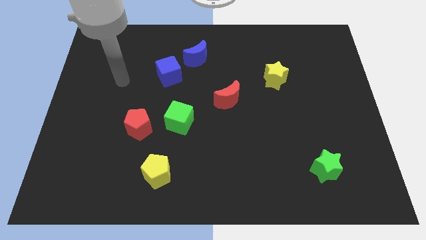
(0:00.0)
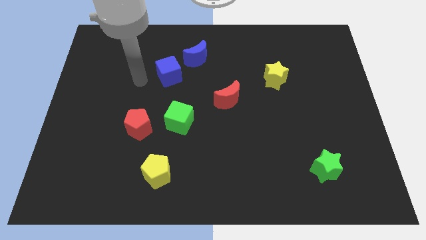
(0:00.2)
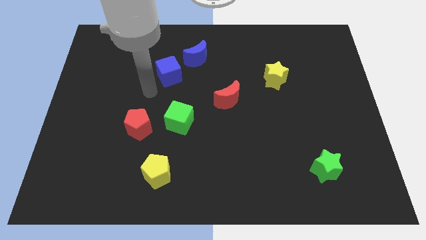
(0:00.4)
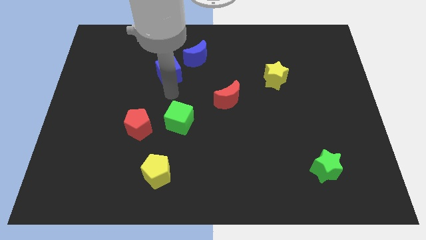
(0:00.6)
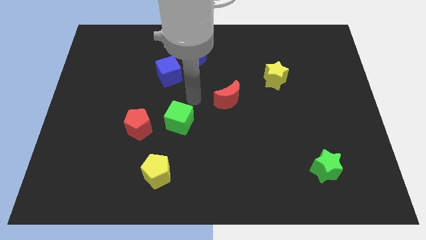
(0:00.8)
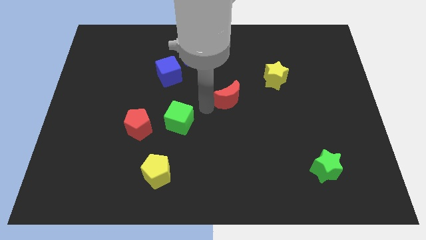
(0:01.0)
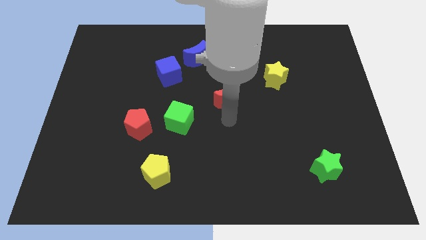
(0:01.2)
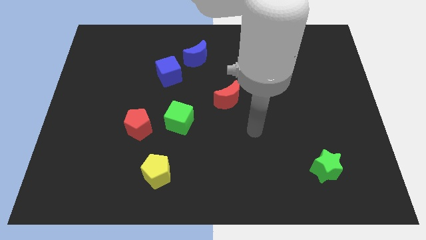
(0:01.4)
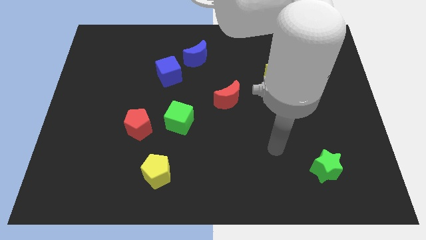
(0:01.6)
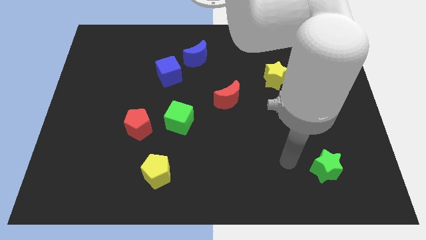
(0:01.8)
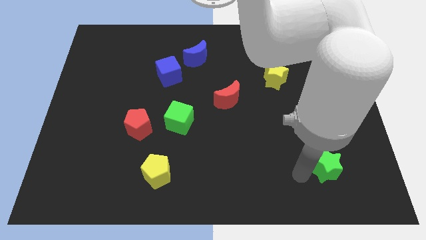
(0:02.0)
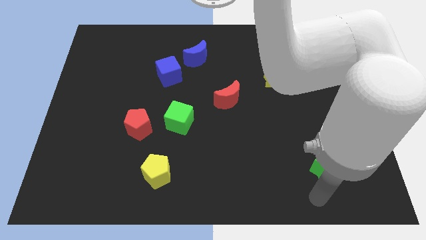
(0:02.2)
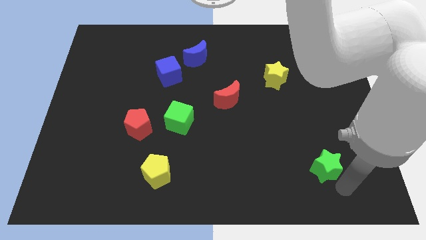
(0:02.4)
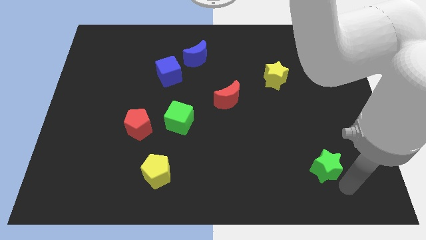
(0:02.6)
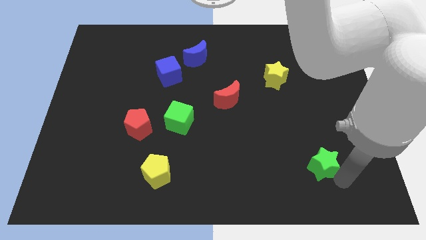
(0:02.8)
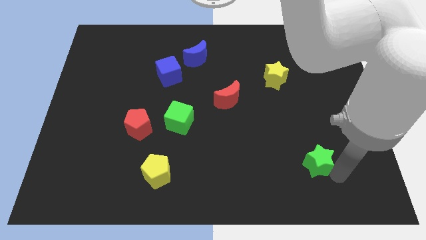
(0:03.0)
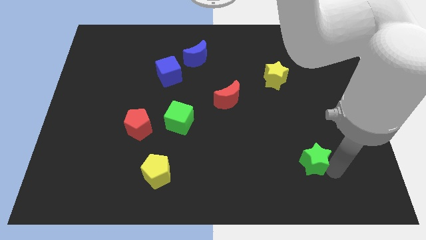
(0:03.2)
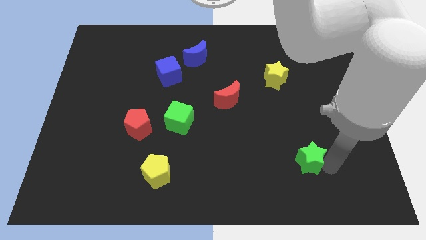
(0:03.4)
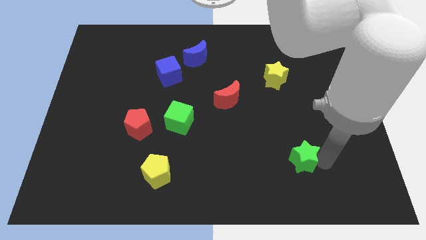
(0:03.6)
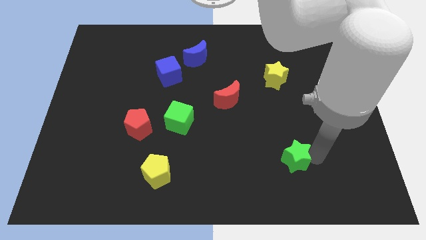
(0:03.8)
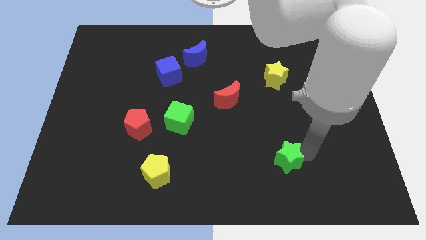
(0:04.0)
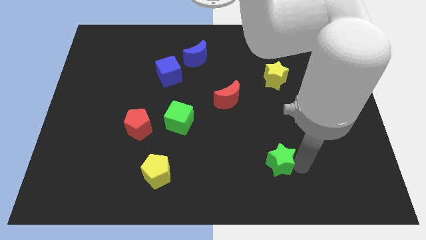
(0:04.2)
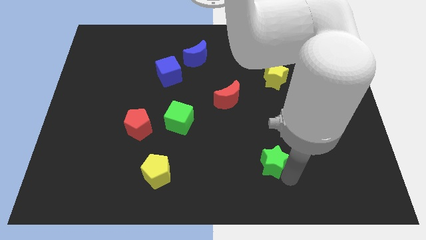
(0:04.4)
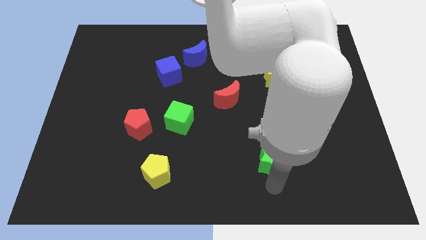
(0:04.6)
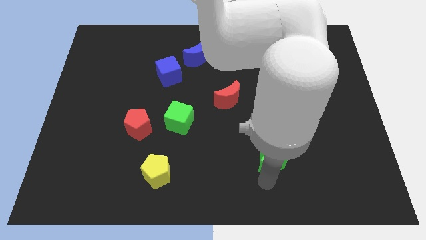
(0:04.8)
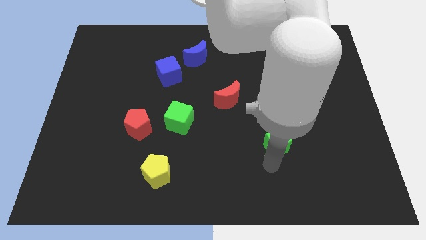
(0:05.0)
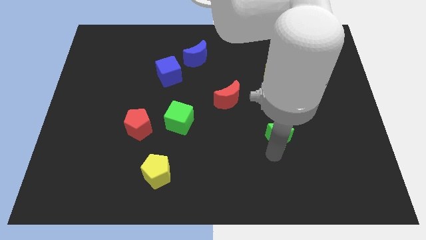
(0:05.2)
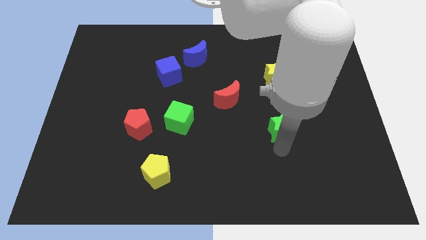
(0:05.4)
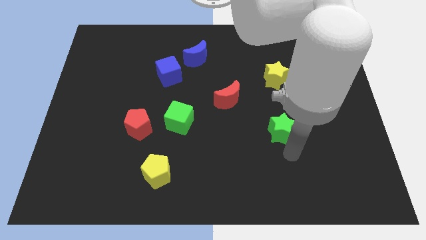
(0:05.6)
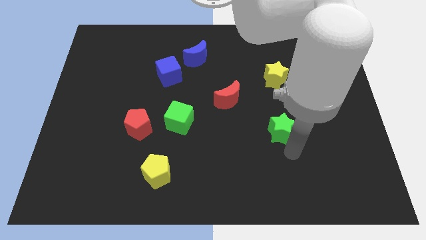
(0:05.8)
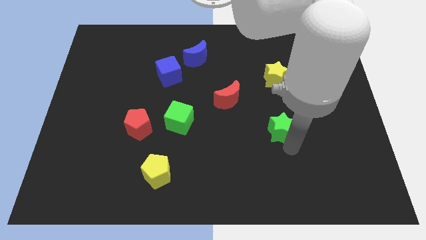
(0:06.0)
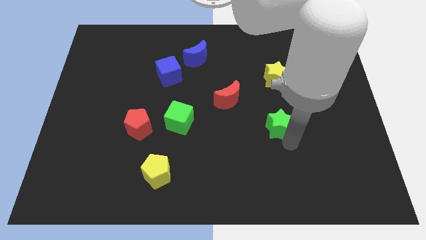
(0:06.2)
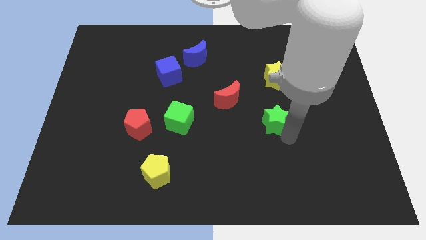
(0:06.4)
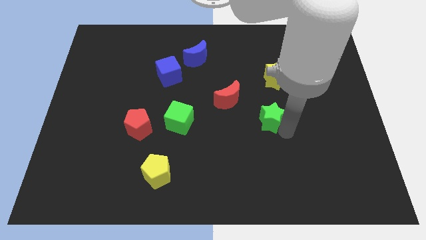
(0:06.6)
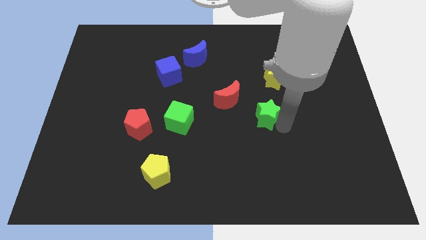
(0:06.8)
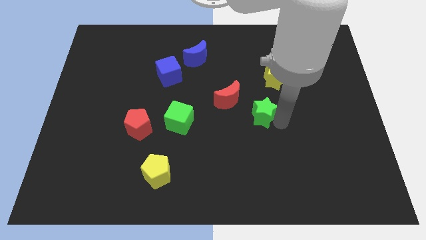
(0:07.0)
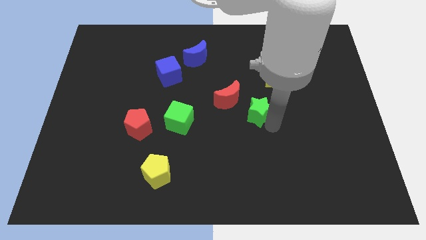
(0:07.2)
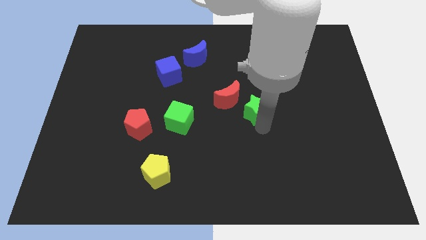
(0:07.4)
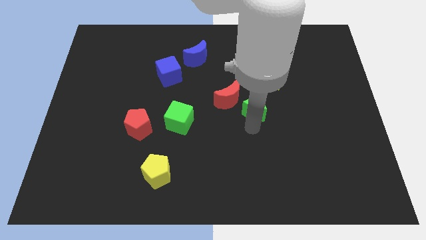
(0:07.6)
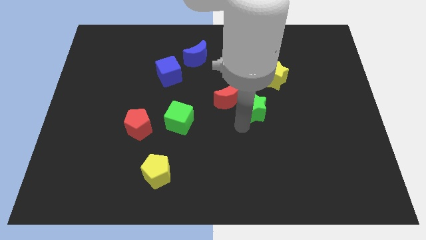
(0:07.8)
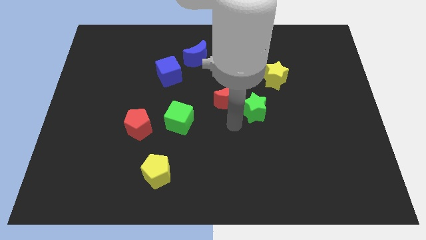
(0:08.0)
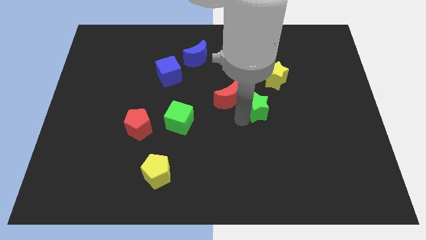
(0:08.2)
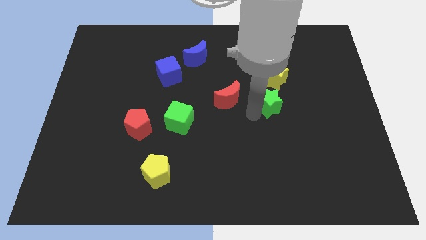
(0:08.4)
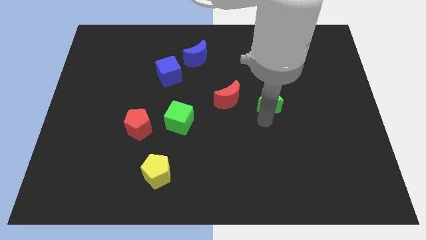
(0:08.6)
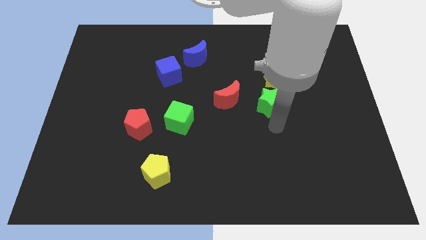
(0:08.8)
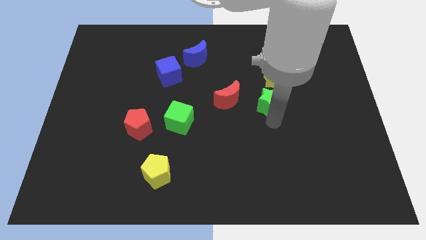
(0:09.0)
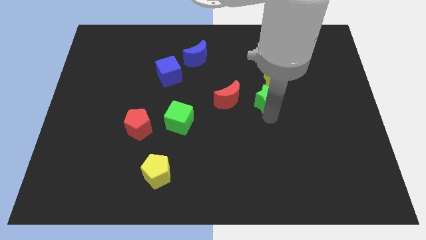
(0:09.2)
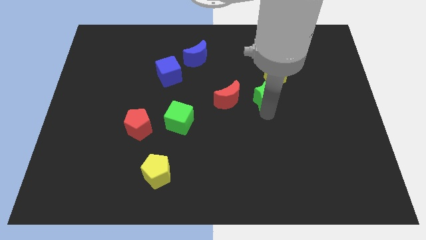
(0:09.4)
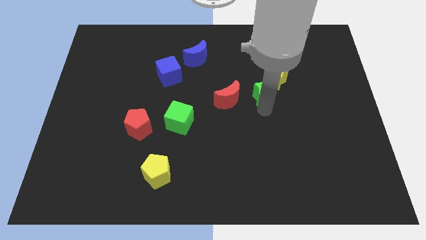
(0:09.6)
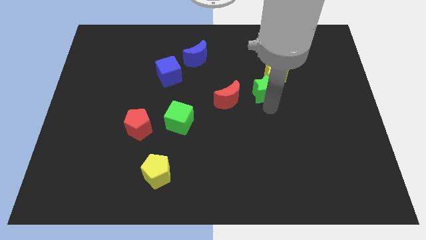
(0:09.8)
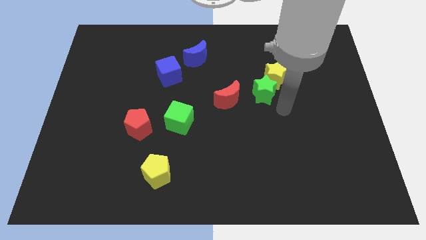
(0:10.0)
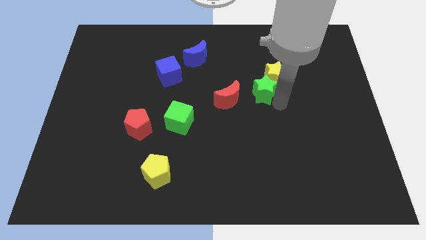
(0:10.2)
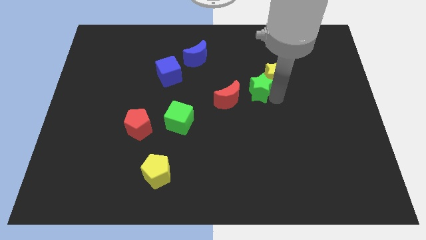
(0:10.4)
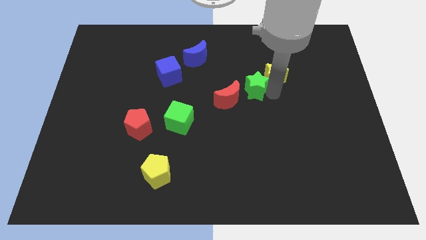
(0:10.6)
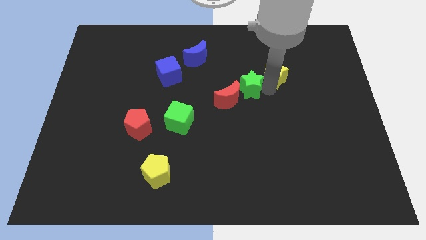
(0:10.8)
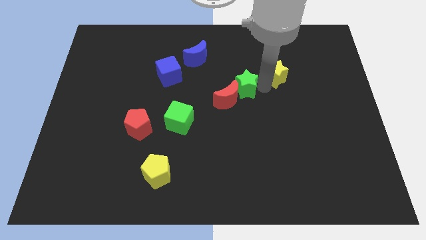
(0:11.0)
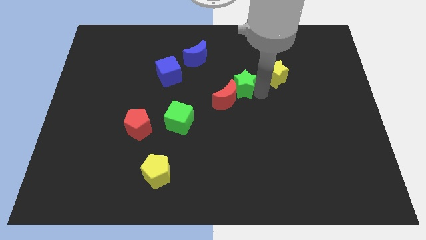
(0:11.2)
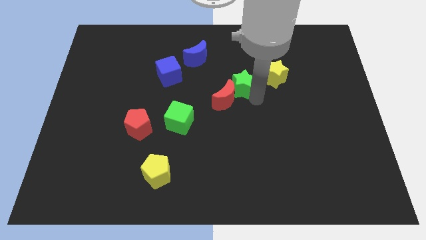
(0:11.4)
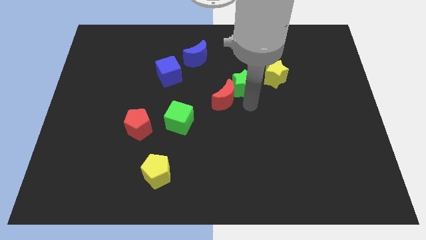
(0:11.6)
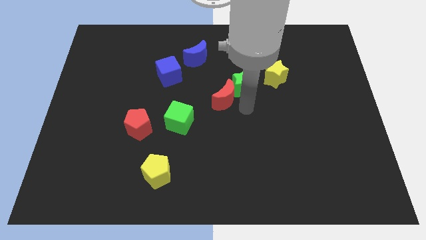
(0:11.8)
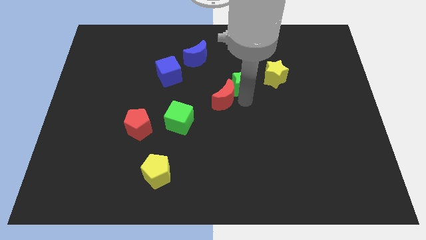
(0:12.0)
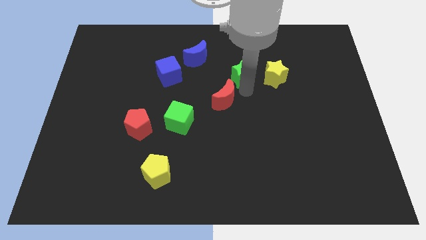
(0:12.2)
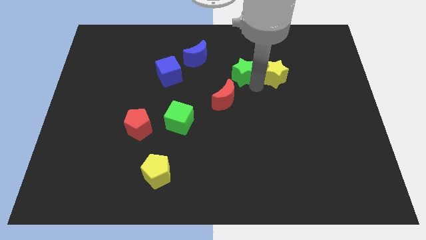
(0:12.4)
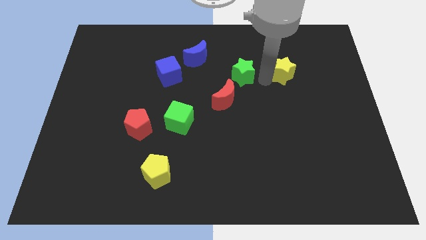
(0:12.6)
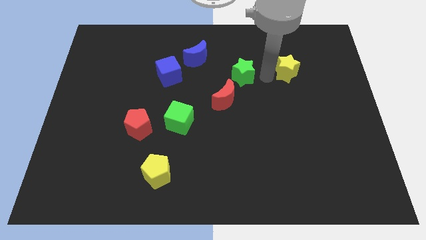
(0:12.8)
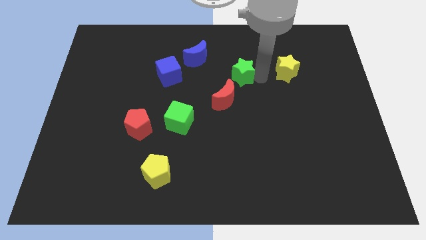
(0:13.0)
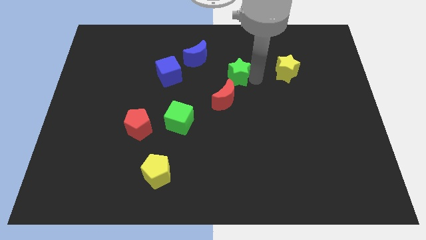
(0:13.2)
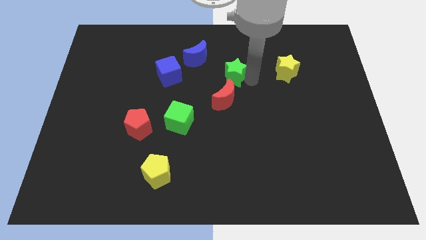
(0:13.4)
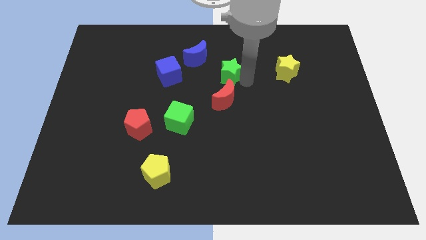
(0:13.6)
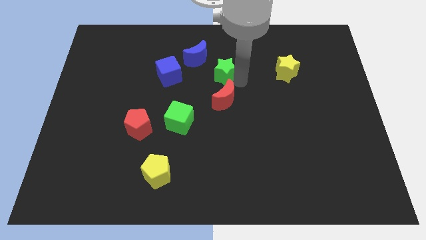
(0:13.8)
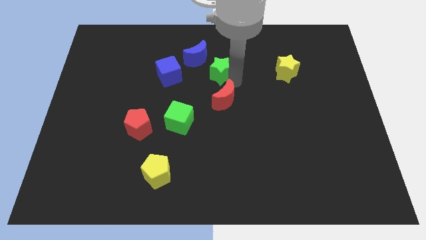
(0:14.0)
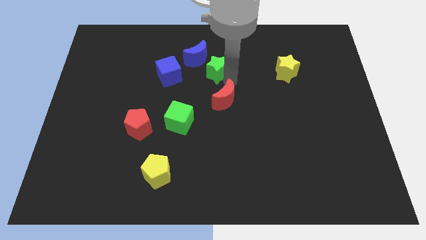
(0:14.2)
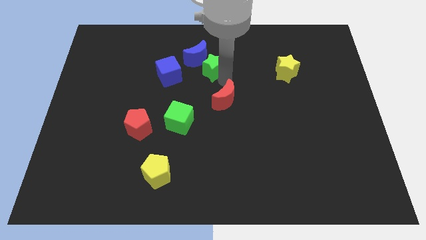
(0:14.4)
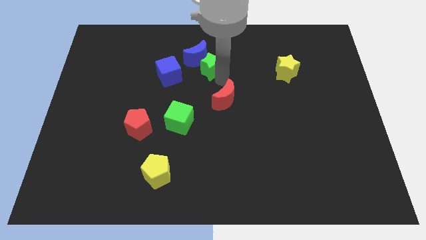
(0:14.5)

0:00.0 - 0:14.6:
move the green star towards the blue moon

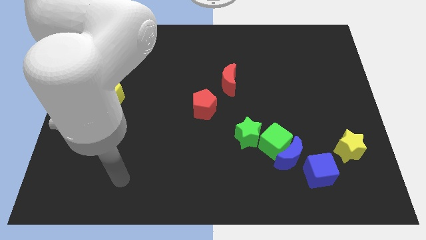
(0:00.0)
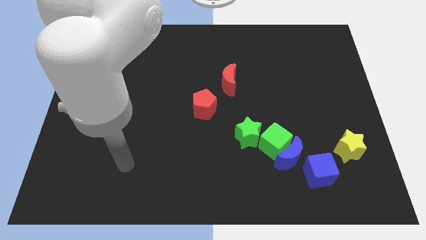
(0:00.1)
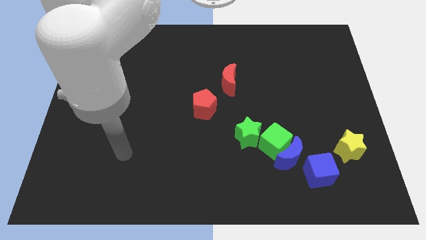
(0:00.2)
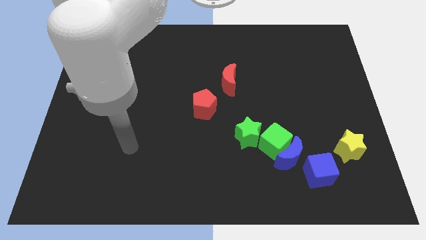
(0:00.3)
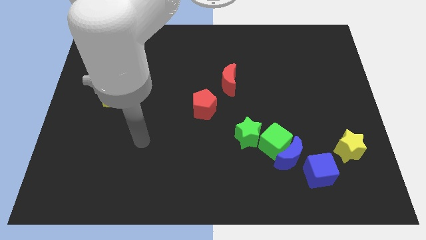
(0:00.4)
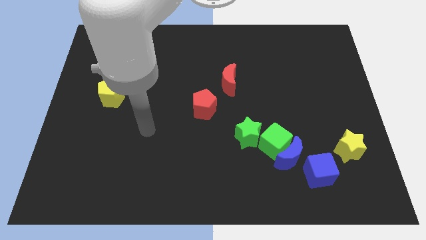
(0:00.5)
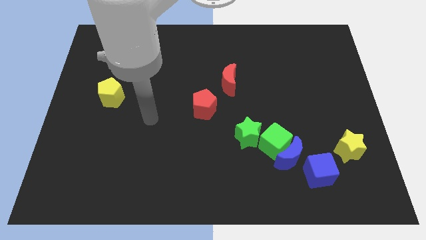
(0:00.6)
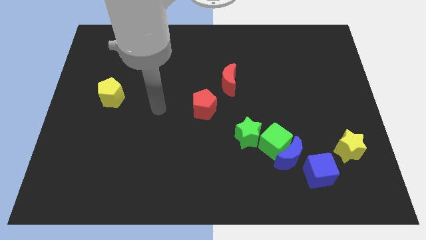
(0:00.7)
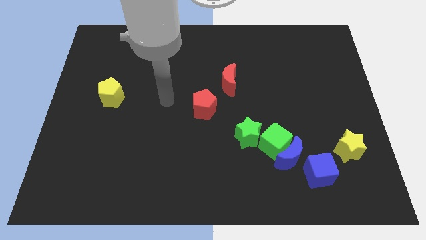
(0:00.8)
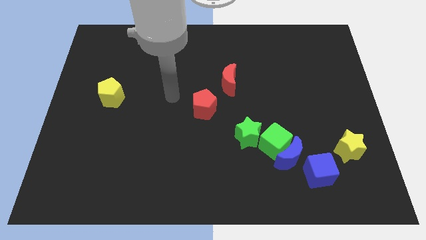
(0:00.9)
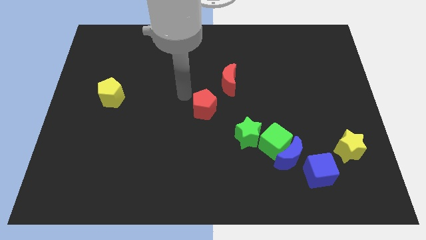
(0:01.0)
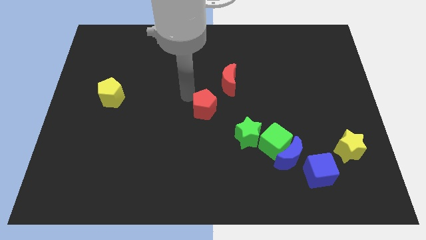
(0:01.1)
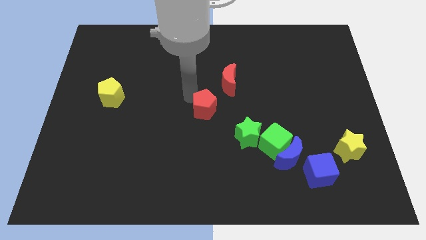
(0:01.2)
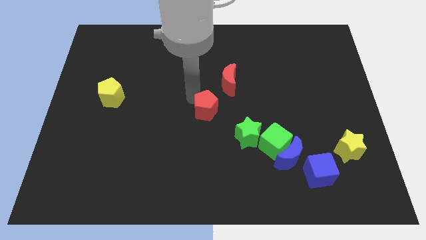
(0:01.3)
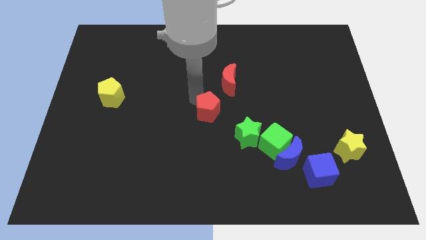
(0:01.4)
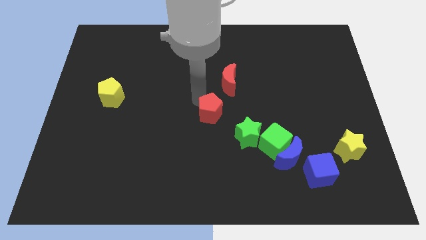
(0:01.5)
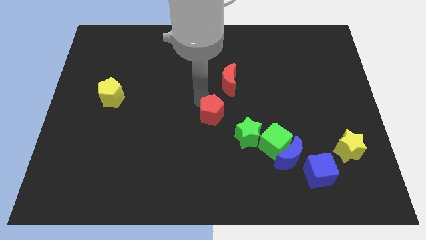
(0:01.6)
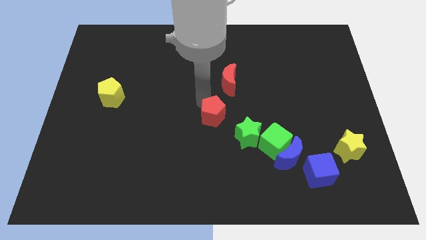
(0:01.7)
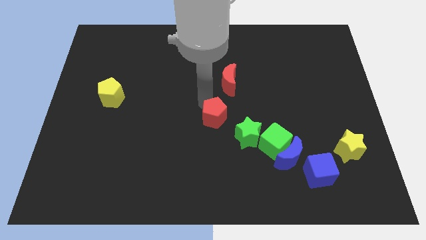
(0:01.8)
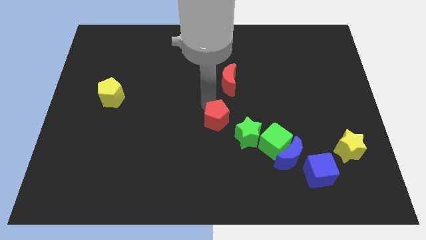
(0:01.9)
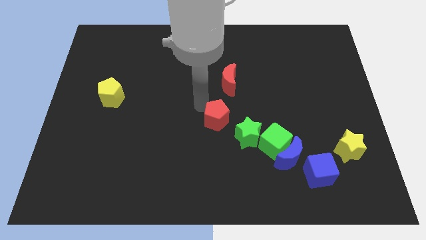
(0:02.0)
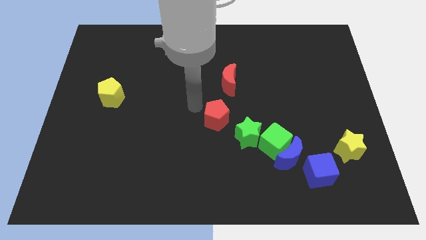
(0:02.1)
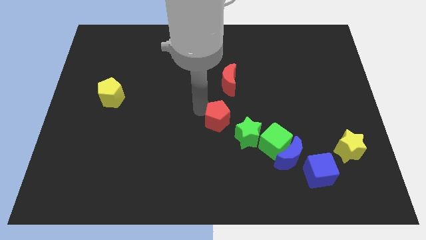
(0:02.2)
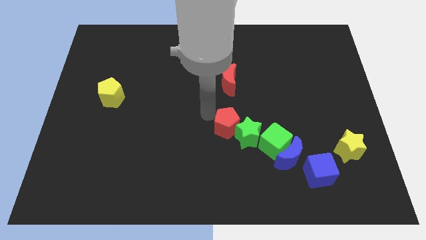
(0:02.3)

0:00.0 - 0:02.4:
move the red pentagon close to the green star
